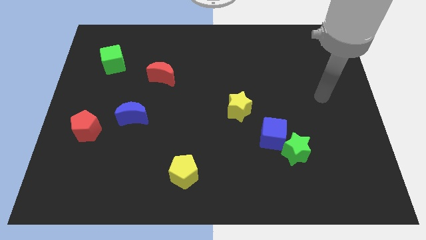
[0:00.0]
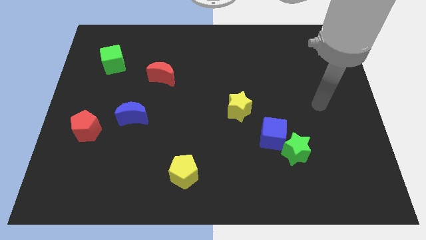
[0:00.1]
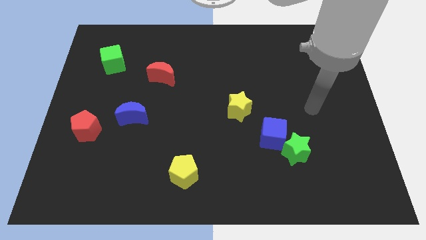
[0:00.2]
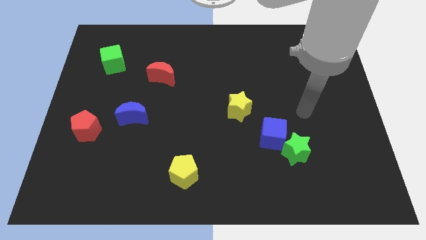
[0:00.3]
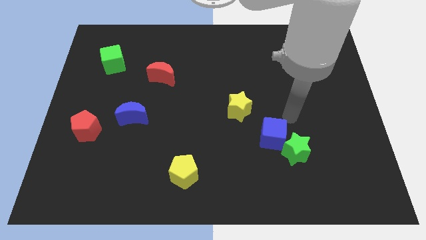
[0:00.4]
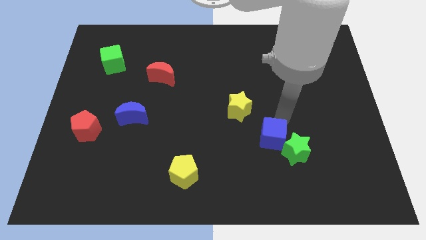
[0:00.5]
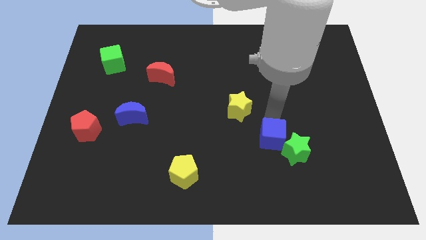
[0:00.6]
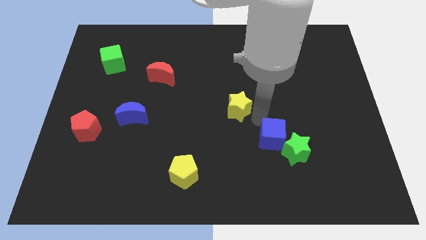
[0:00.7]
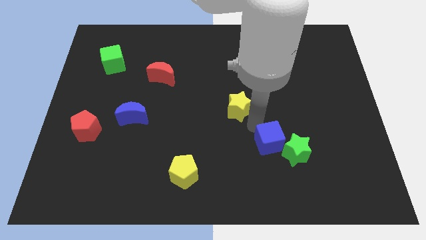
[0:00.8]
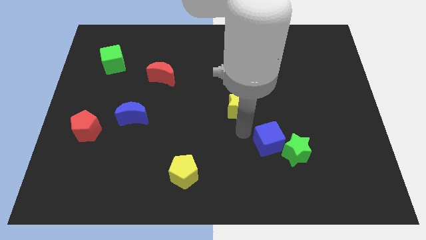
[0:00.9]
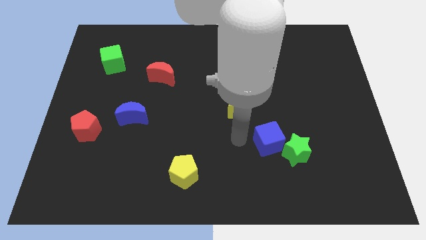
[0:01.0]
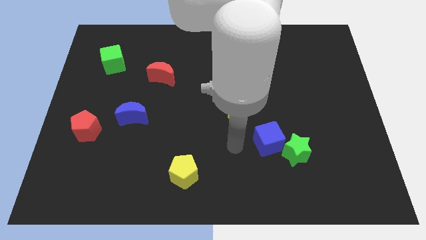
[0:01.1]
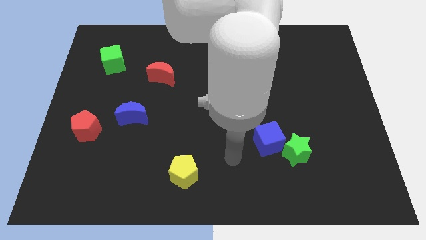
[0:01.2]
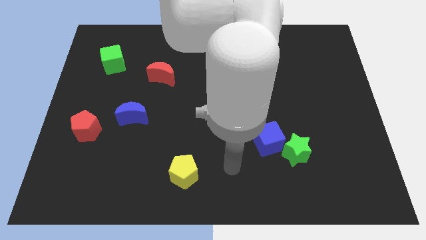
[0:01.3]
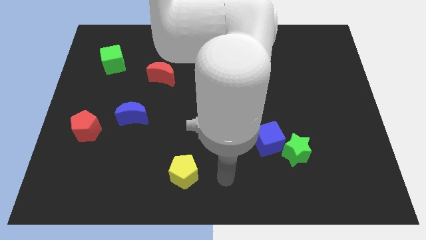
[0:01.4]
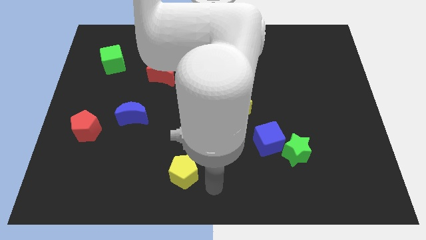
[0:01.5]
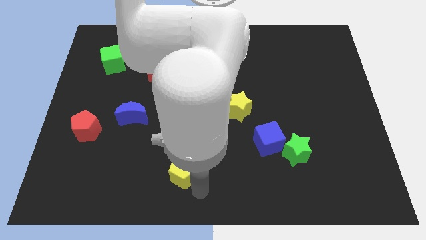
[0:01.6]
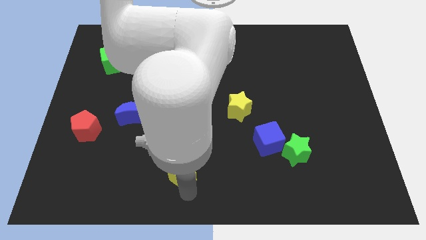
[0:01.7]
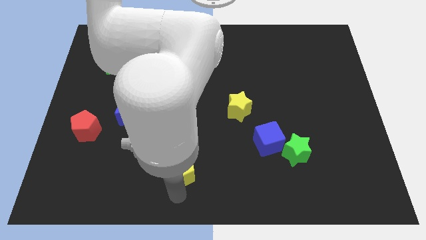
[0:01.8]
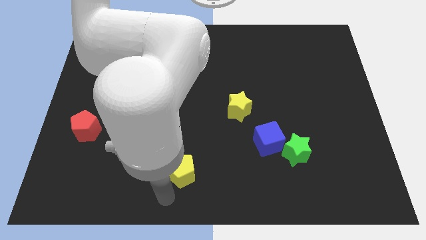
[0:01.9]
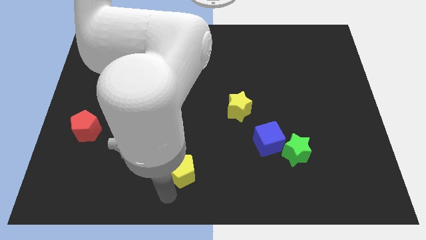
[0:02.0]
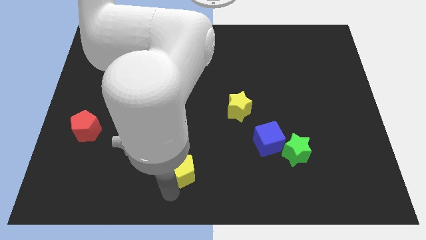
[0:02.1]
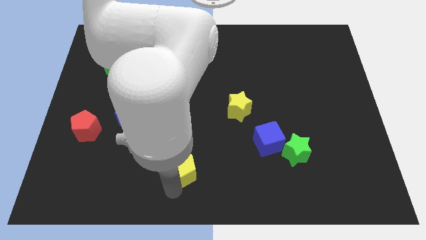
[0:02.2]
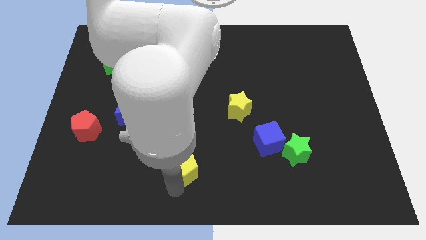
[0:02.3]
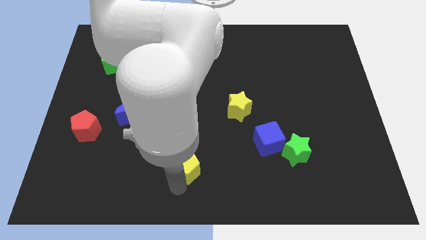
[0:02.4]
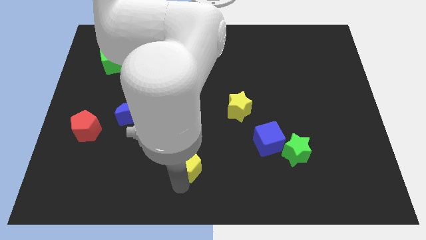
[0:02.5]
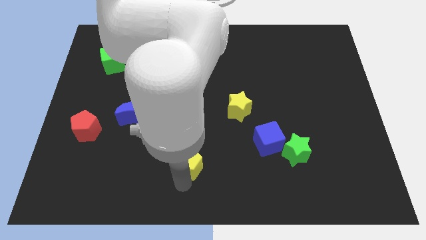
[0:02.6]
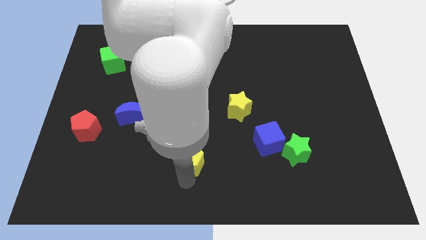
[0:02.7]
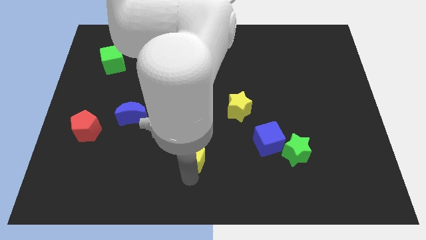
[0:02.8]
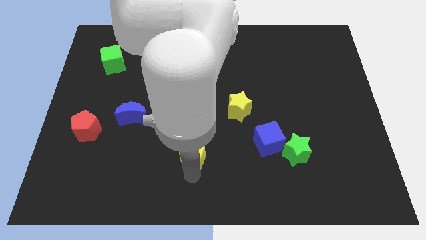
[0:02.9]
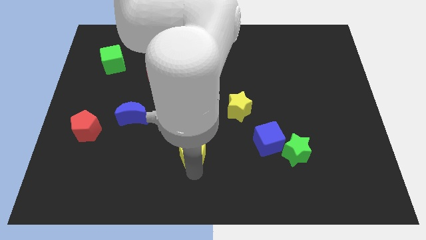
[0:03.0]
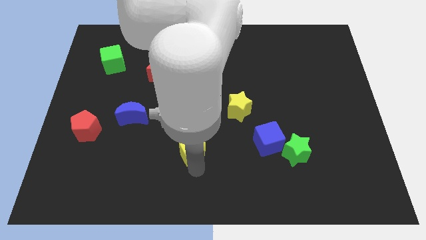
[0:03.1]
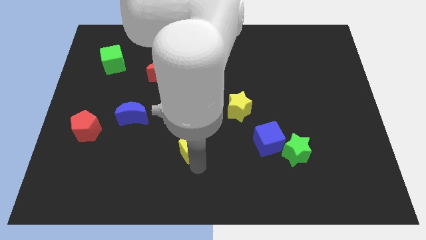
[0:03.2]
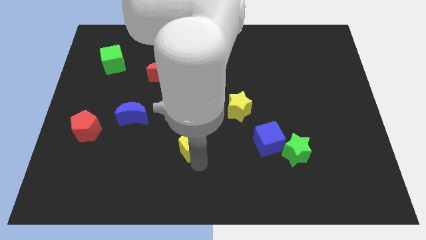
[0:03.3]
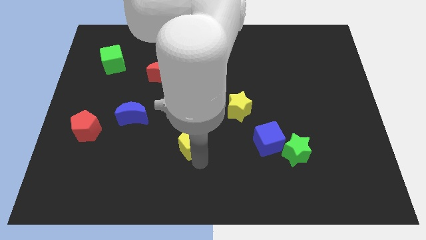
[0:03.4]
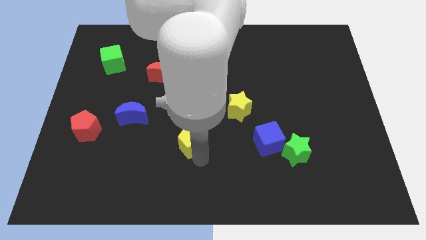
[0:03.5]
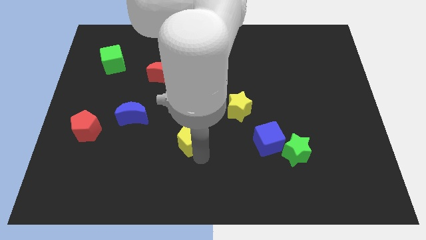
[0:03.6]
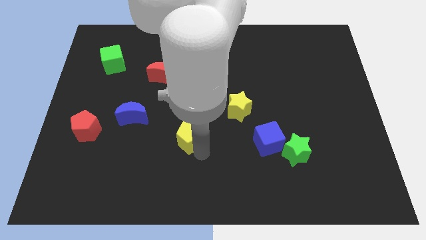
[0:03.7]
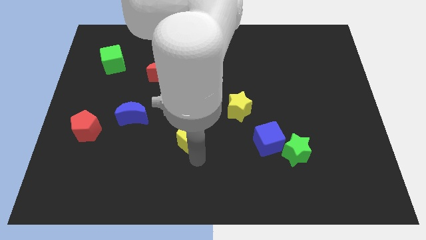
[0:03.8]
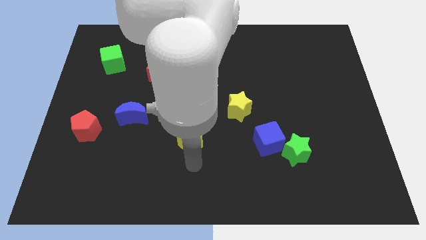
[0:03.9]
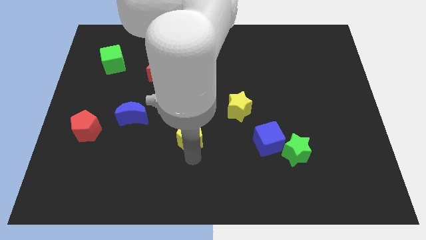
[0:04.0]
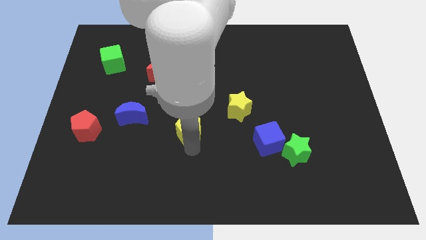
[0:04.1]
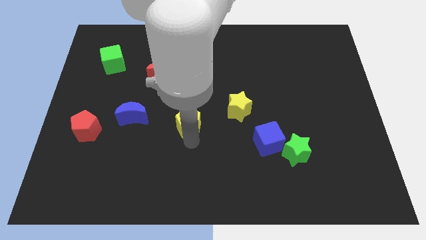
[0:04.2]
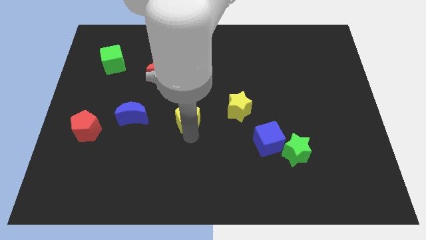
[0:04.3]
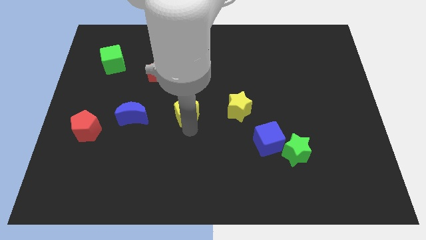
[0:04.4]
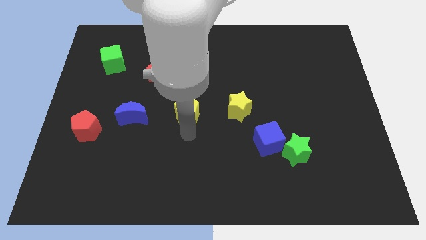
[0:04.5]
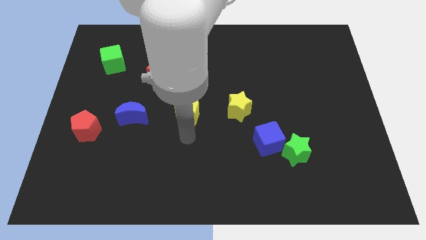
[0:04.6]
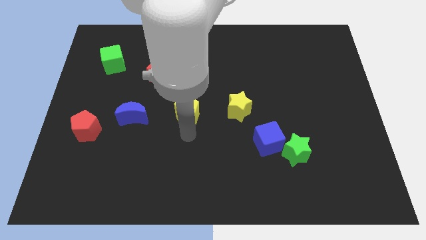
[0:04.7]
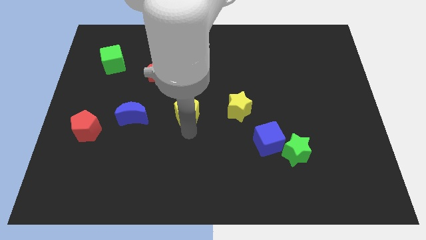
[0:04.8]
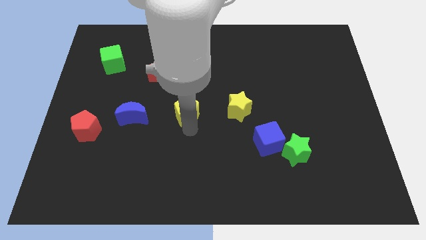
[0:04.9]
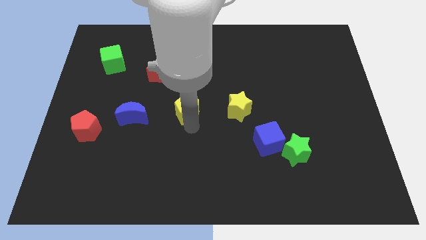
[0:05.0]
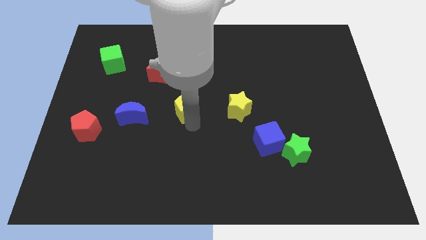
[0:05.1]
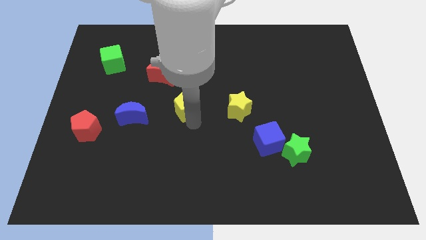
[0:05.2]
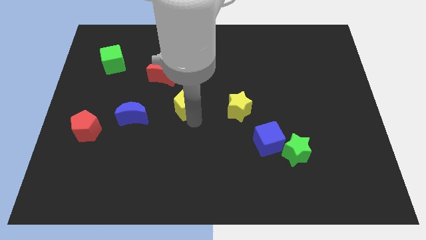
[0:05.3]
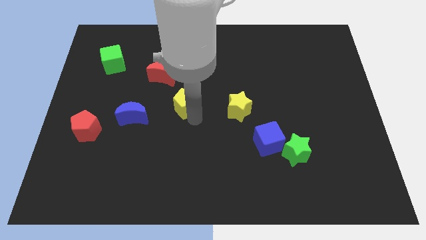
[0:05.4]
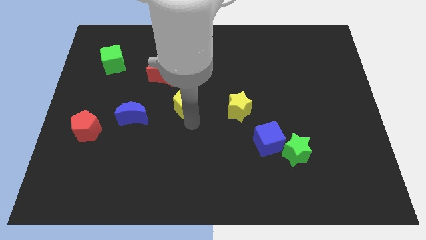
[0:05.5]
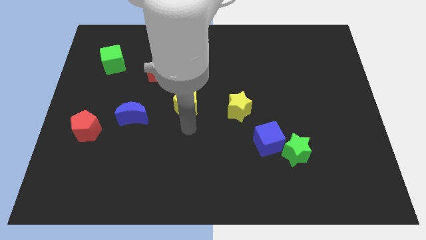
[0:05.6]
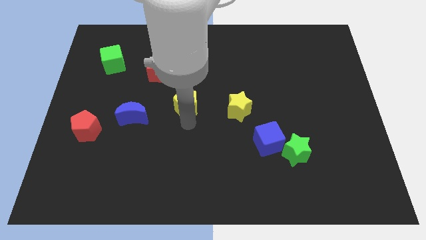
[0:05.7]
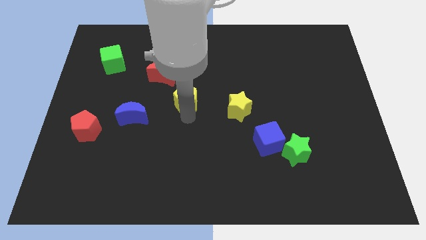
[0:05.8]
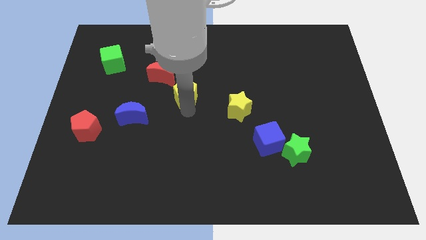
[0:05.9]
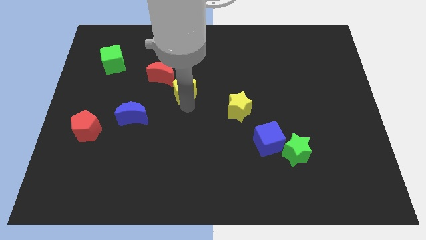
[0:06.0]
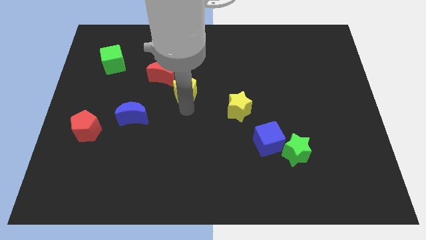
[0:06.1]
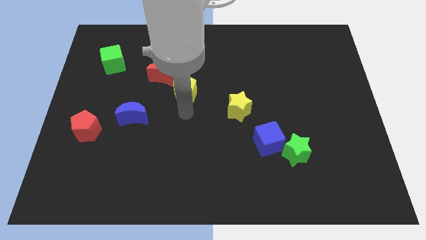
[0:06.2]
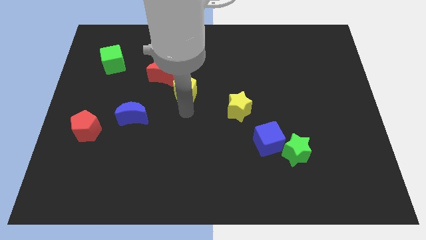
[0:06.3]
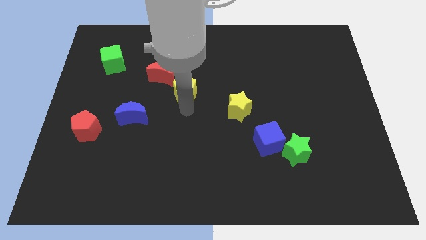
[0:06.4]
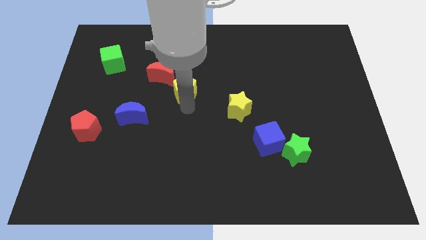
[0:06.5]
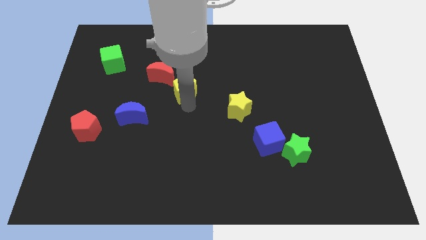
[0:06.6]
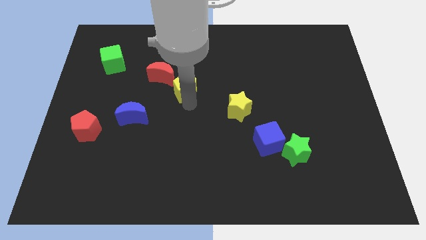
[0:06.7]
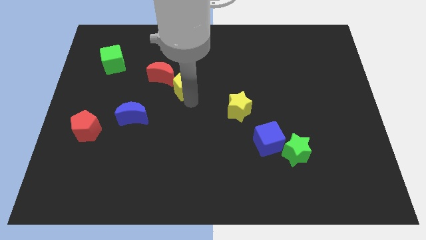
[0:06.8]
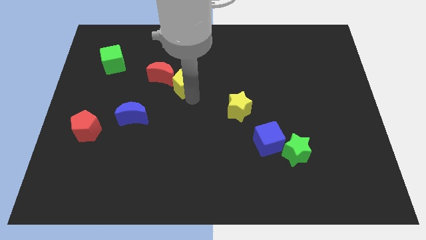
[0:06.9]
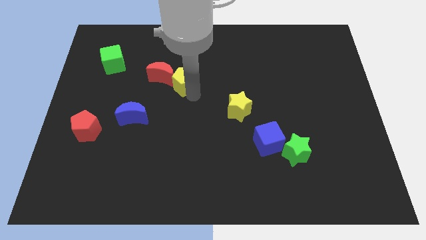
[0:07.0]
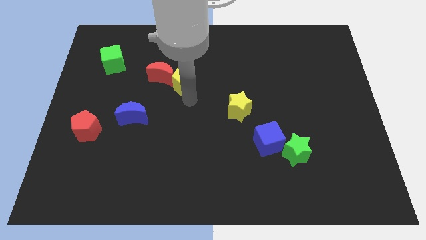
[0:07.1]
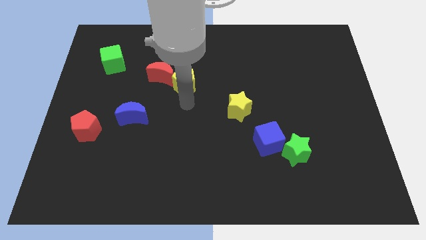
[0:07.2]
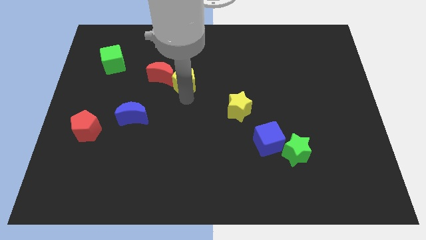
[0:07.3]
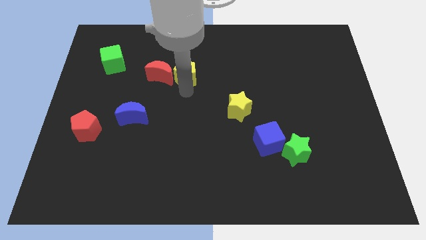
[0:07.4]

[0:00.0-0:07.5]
push the yellow pentagon diagonally up and to the right of the red moon
